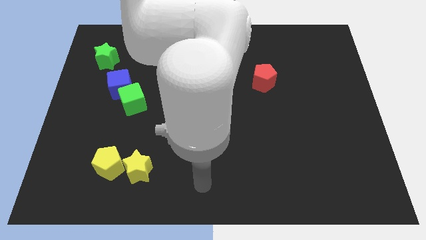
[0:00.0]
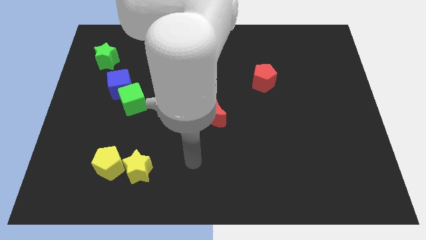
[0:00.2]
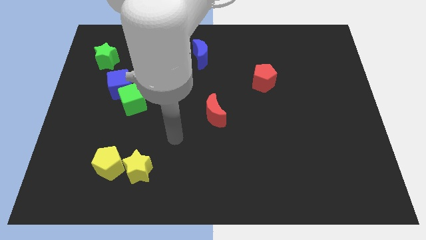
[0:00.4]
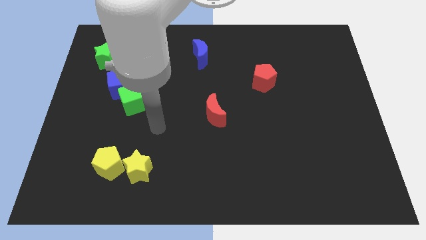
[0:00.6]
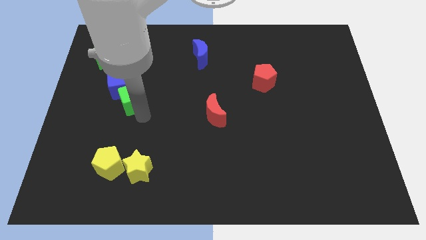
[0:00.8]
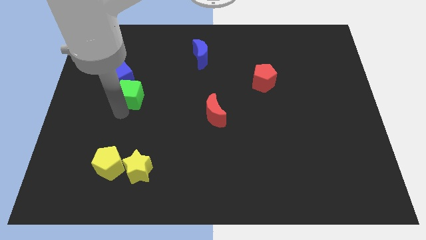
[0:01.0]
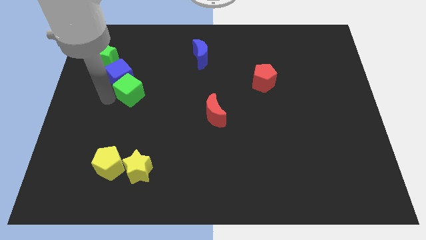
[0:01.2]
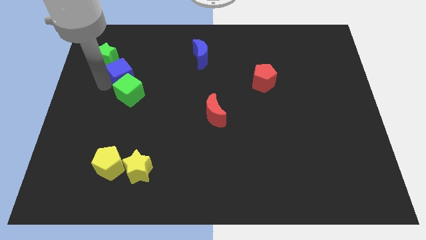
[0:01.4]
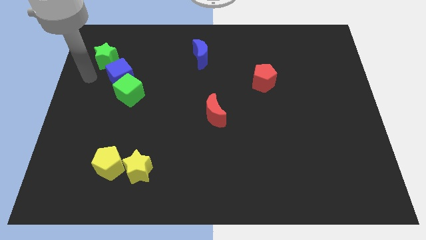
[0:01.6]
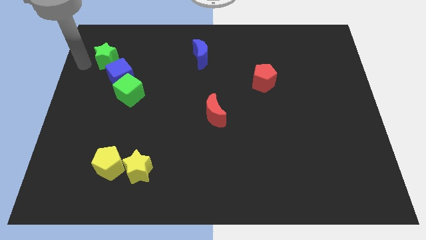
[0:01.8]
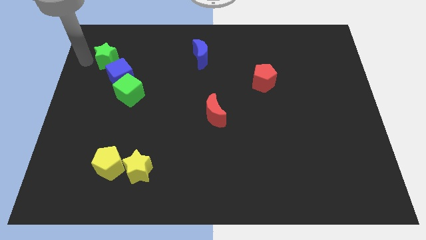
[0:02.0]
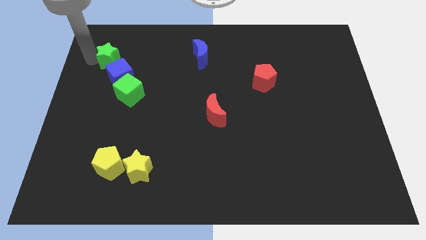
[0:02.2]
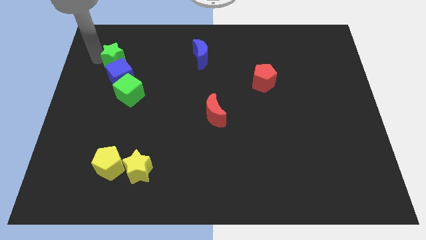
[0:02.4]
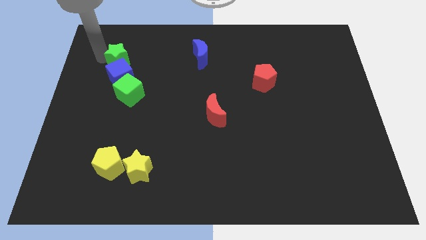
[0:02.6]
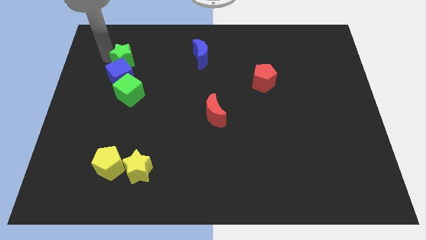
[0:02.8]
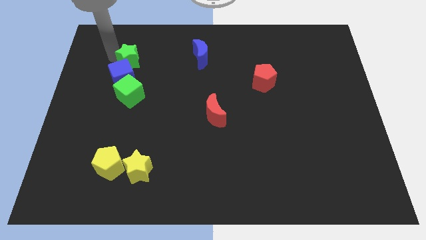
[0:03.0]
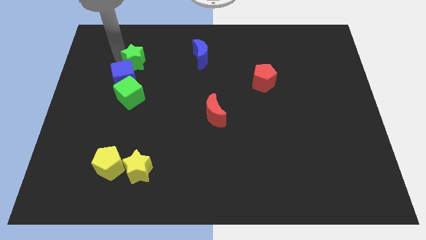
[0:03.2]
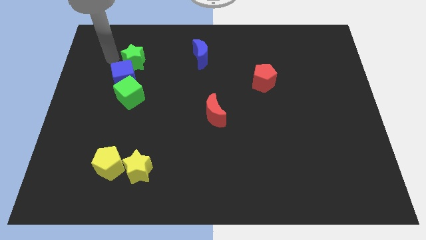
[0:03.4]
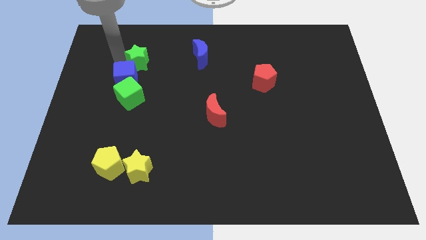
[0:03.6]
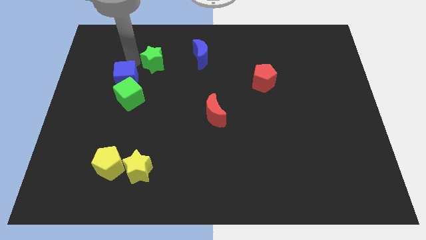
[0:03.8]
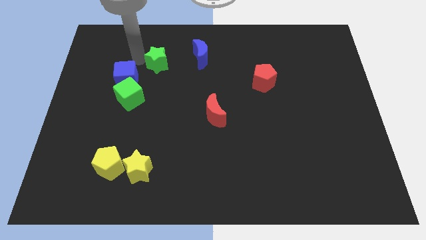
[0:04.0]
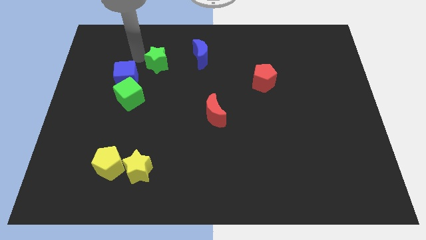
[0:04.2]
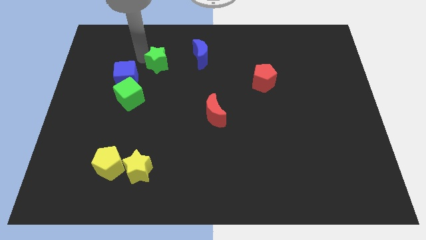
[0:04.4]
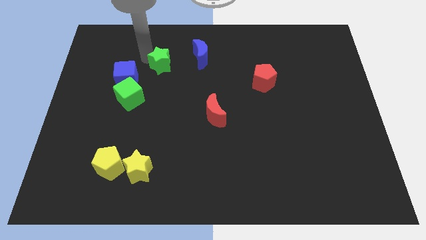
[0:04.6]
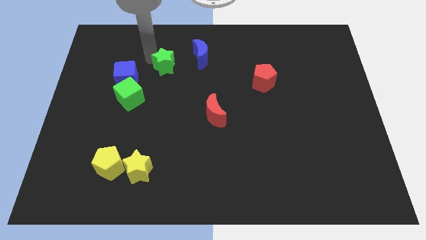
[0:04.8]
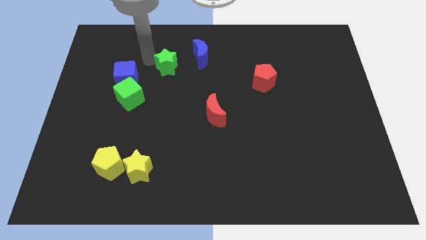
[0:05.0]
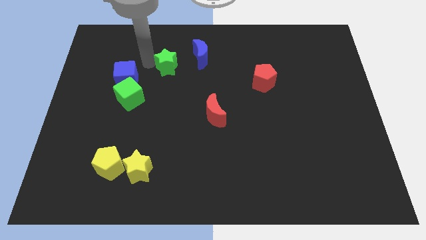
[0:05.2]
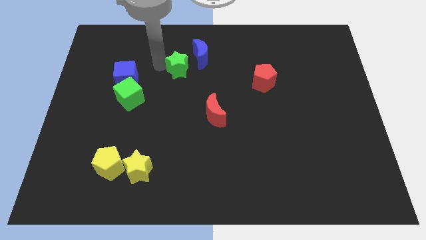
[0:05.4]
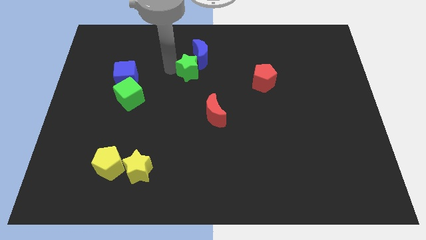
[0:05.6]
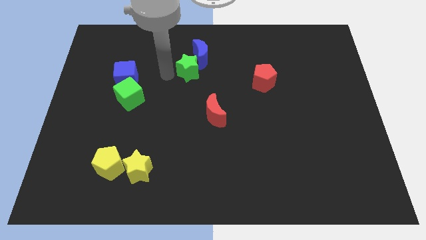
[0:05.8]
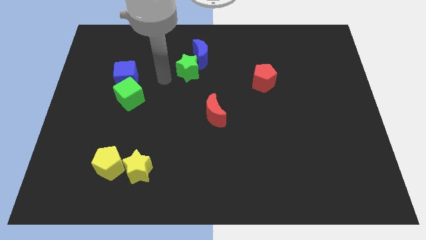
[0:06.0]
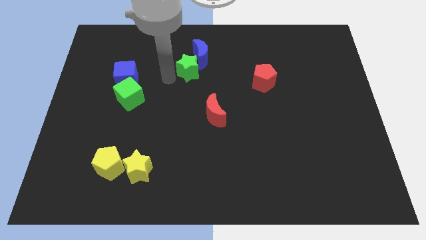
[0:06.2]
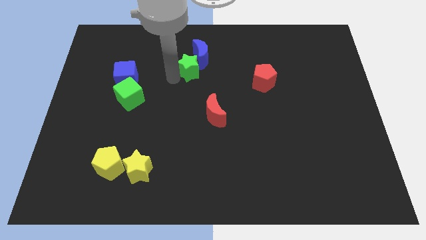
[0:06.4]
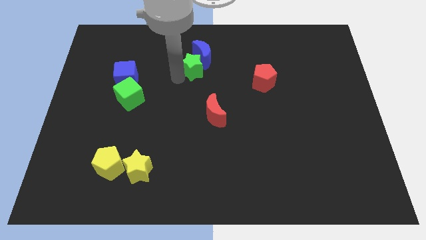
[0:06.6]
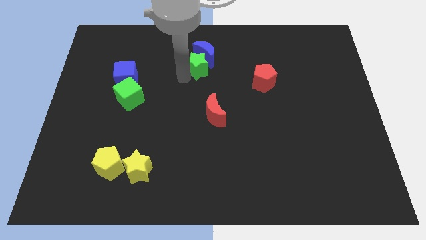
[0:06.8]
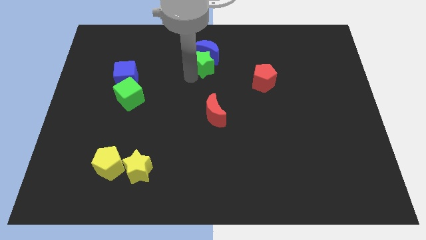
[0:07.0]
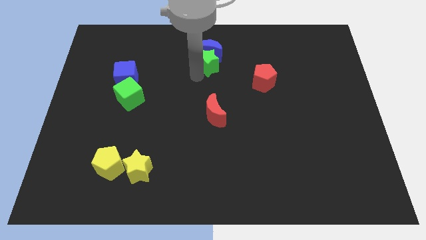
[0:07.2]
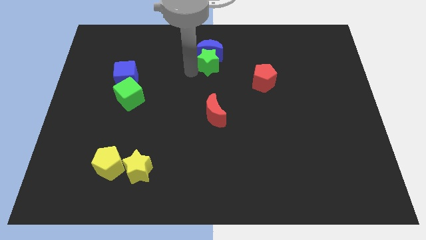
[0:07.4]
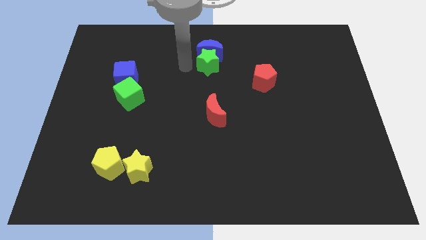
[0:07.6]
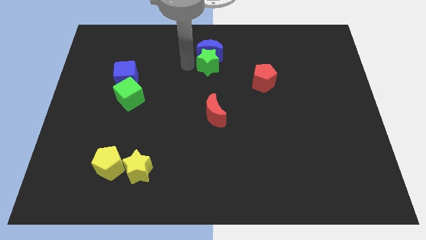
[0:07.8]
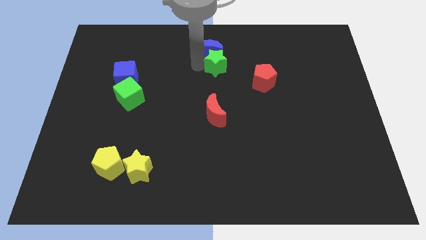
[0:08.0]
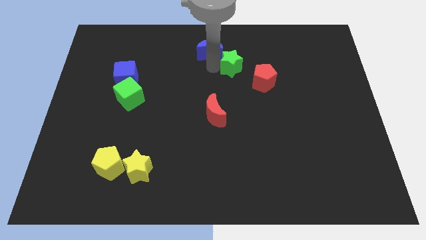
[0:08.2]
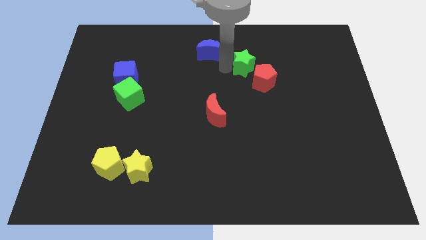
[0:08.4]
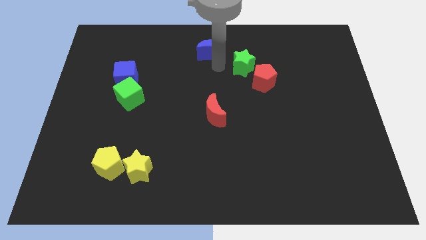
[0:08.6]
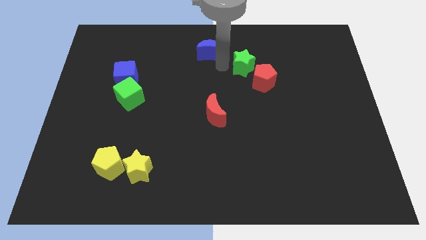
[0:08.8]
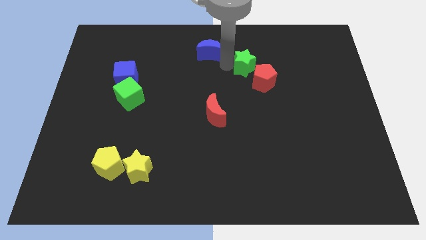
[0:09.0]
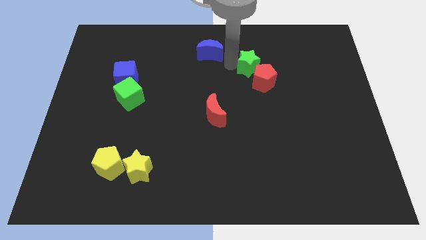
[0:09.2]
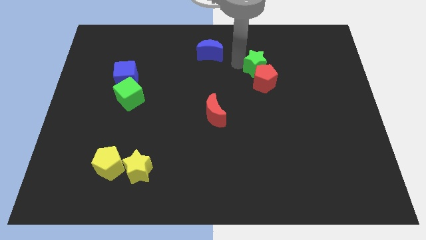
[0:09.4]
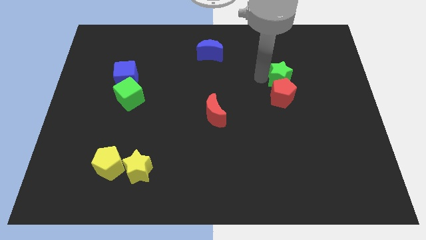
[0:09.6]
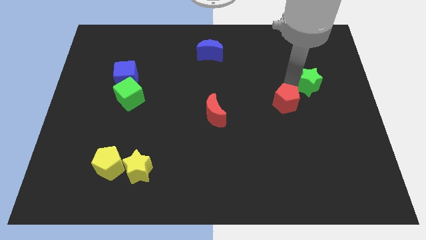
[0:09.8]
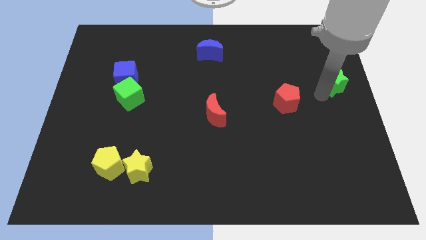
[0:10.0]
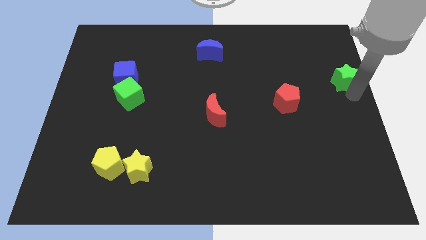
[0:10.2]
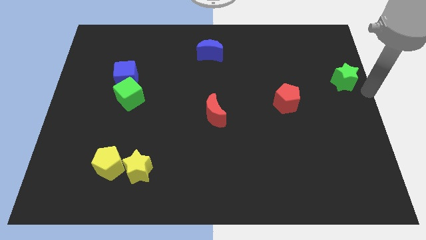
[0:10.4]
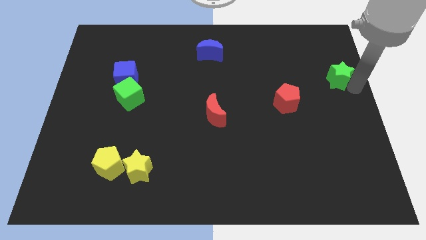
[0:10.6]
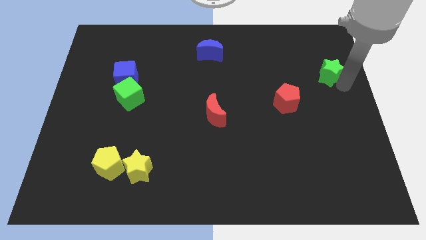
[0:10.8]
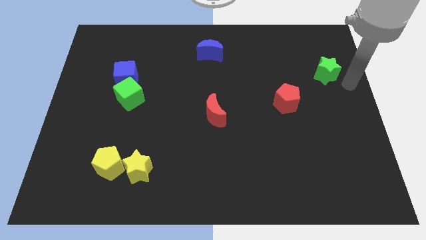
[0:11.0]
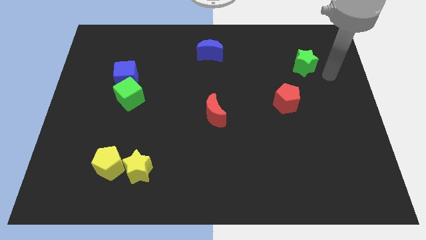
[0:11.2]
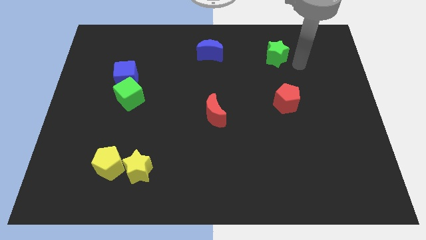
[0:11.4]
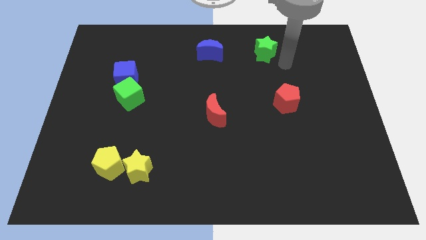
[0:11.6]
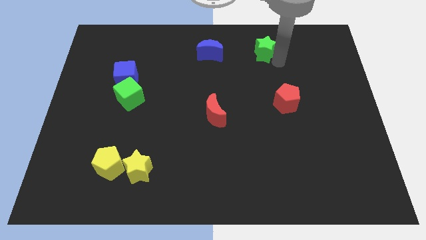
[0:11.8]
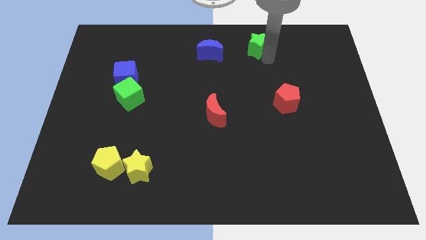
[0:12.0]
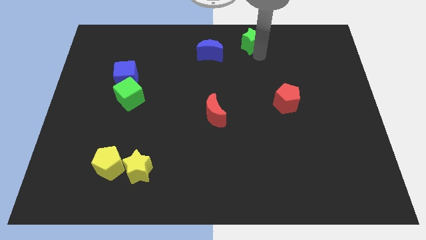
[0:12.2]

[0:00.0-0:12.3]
put the green star to the towards your base

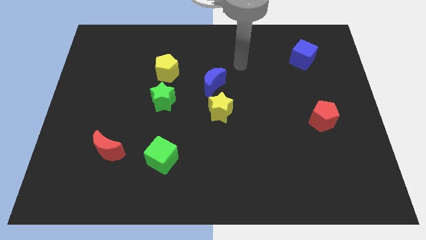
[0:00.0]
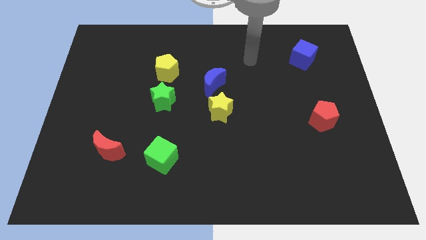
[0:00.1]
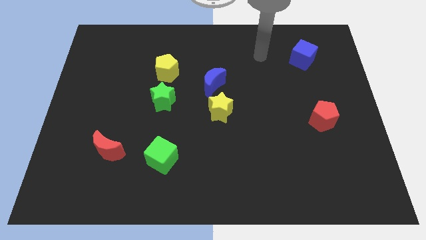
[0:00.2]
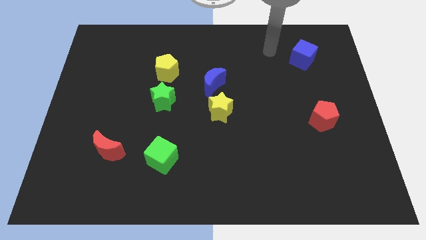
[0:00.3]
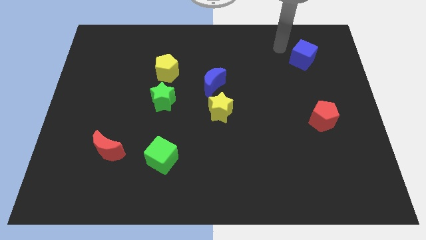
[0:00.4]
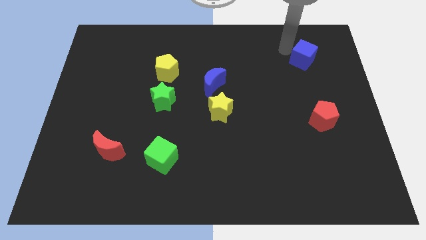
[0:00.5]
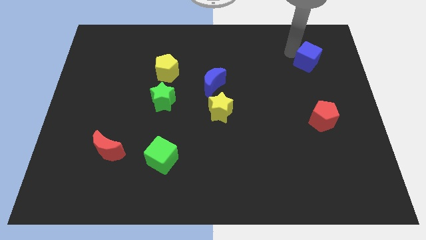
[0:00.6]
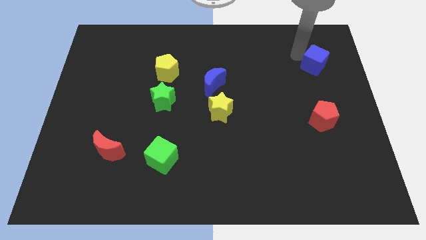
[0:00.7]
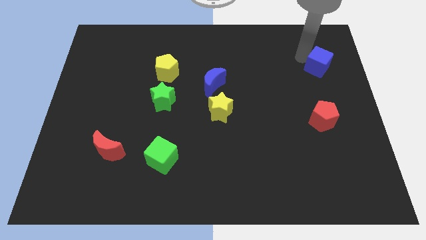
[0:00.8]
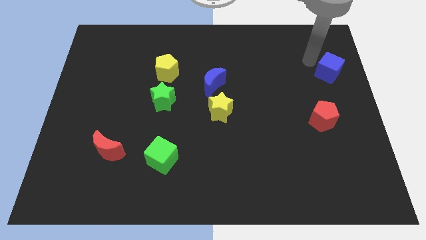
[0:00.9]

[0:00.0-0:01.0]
slide the blue cube to the right side of the board
